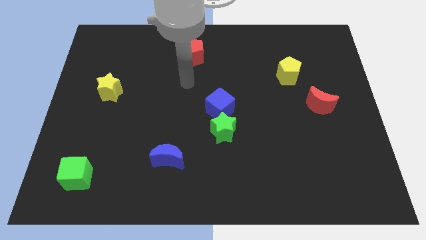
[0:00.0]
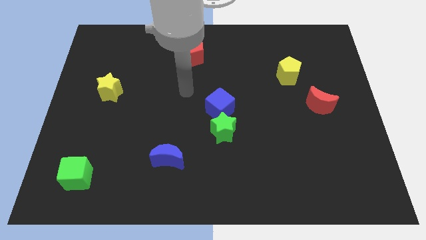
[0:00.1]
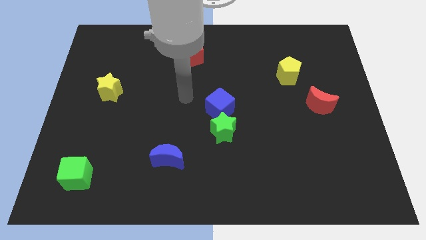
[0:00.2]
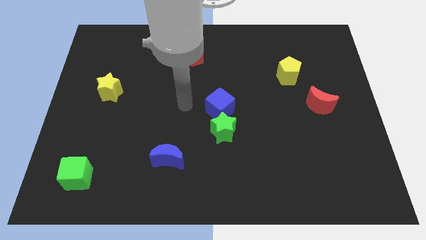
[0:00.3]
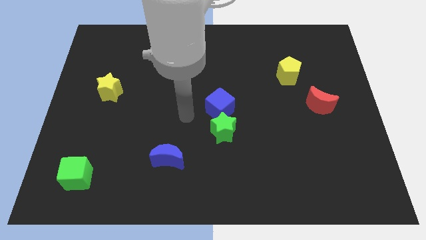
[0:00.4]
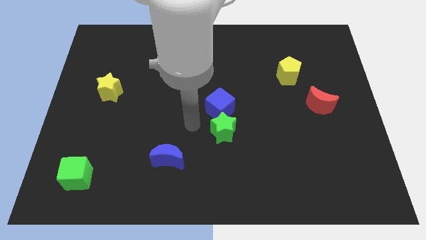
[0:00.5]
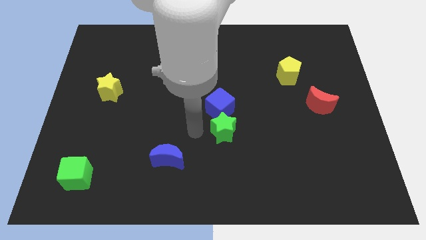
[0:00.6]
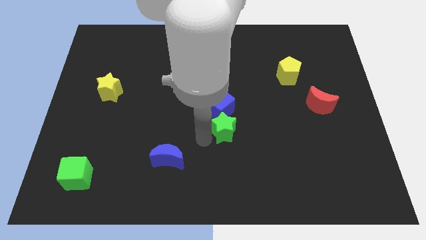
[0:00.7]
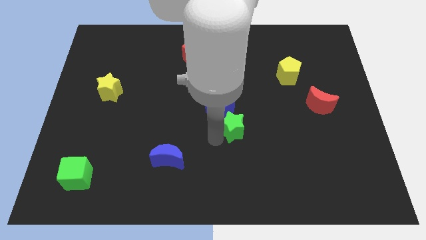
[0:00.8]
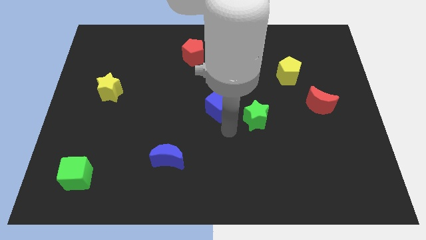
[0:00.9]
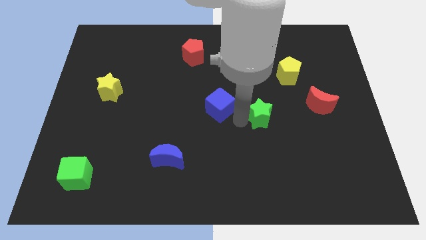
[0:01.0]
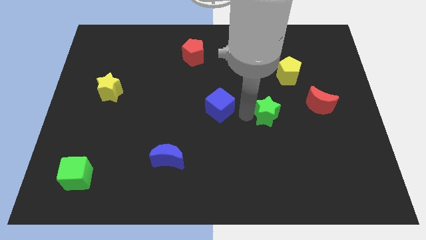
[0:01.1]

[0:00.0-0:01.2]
move the blue cube away from the green star

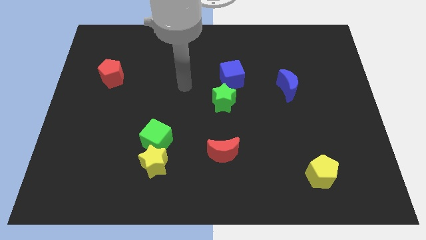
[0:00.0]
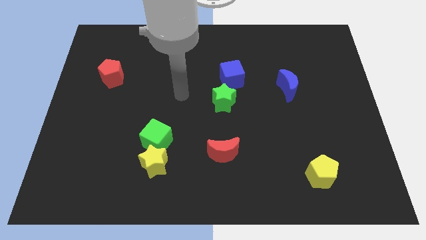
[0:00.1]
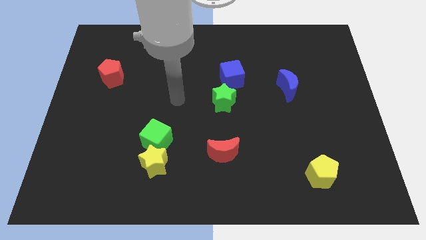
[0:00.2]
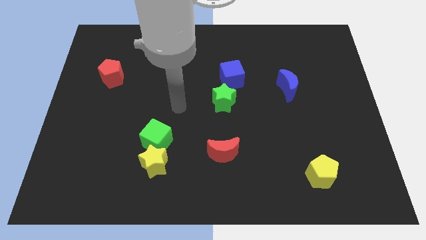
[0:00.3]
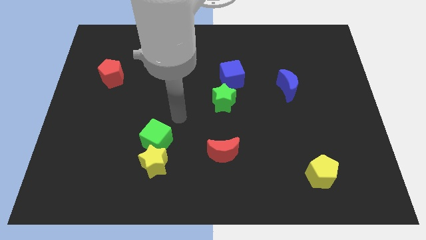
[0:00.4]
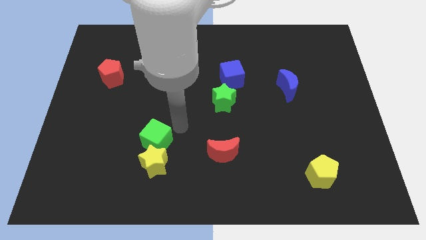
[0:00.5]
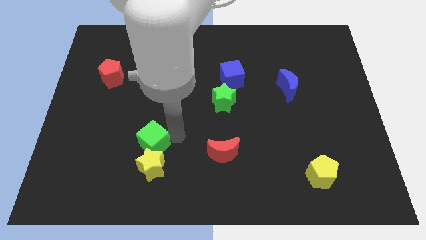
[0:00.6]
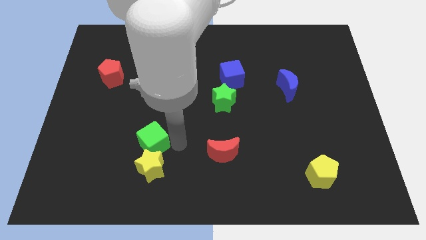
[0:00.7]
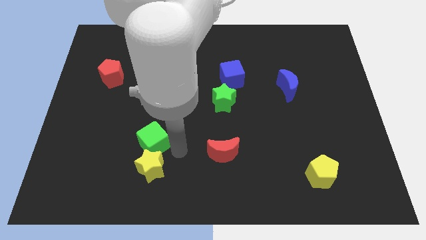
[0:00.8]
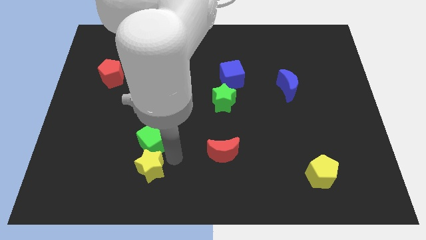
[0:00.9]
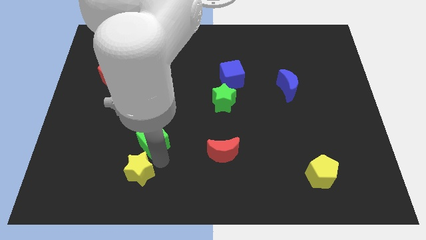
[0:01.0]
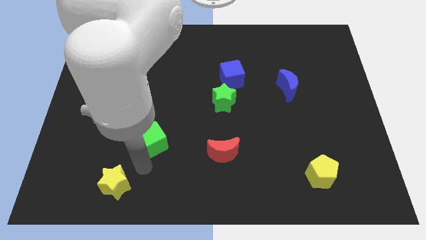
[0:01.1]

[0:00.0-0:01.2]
move the green cube away from the yellow star

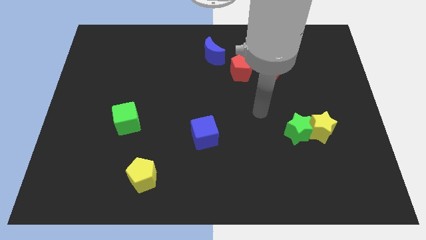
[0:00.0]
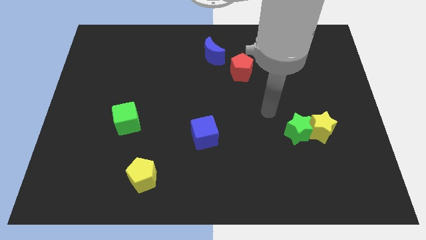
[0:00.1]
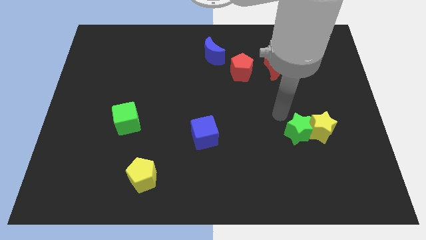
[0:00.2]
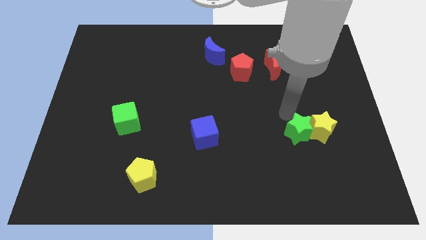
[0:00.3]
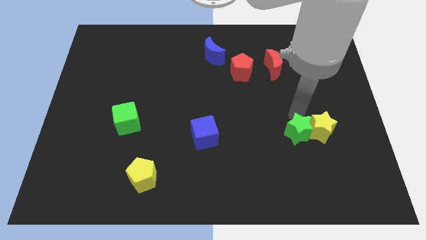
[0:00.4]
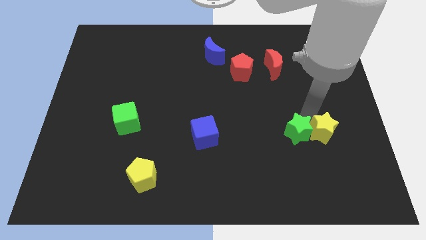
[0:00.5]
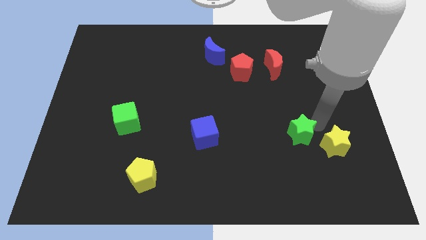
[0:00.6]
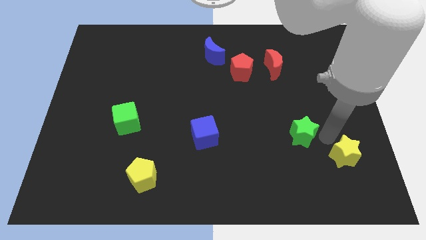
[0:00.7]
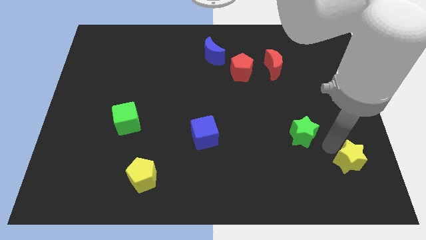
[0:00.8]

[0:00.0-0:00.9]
separate the green star from the yellow star

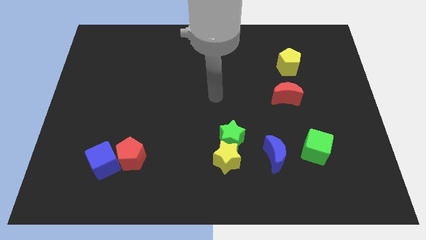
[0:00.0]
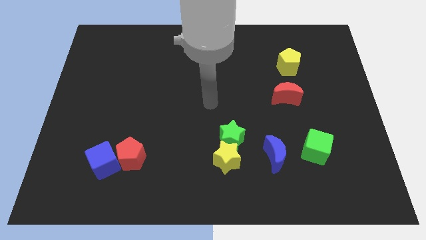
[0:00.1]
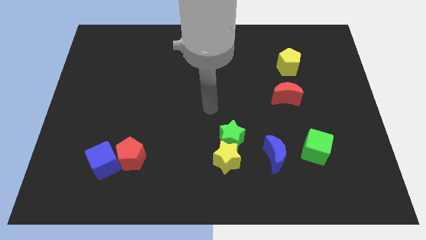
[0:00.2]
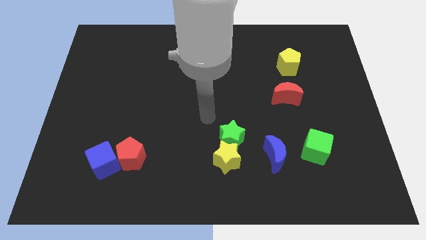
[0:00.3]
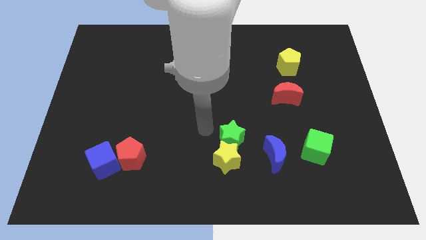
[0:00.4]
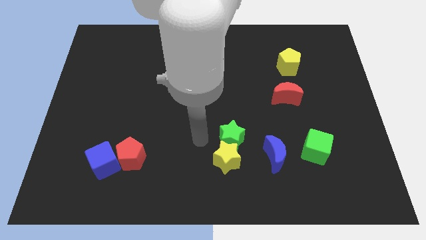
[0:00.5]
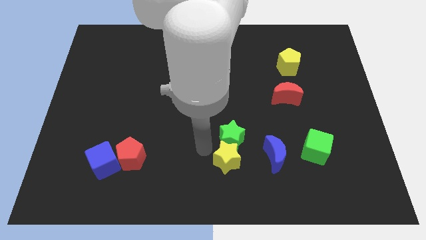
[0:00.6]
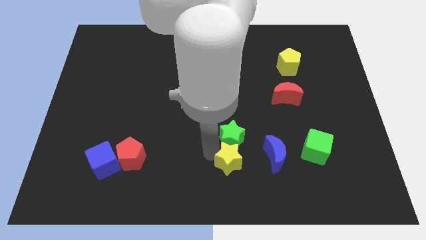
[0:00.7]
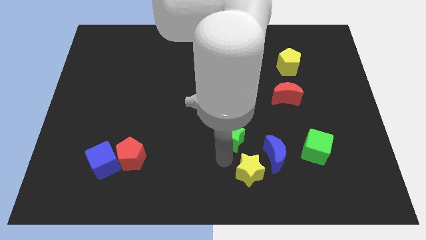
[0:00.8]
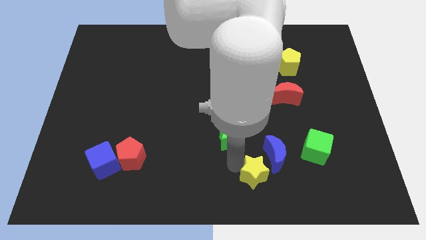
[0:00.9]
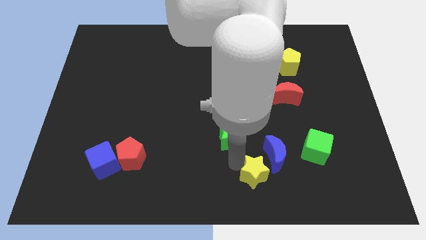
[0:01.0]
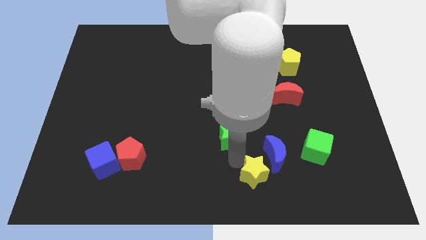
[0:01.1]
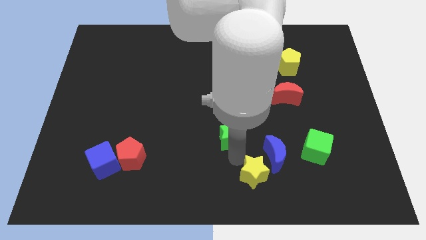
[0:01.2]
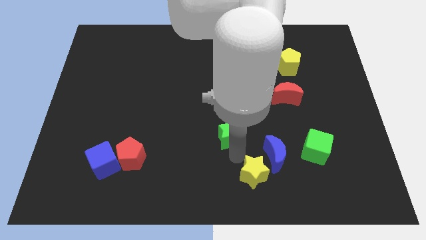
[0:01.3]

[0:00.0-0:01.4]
move the green star away from the yellow star

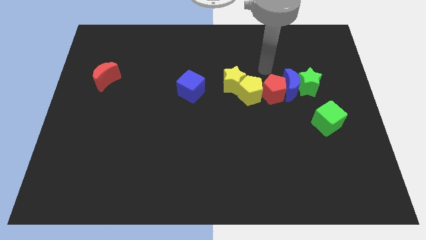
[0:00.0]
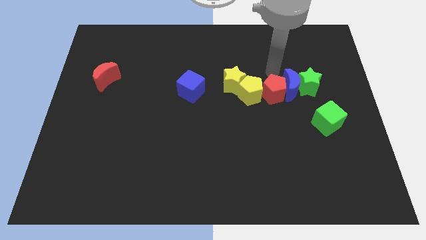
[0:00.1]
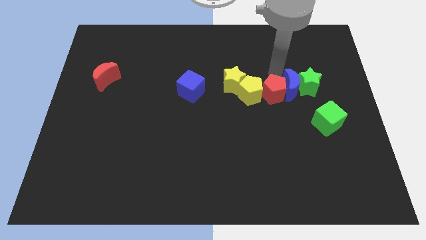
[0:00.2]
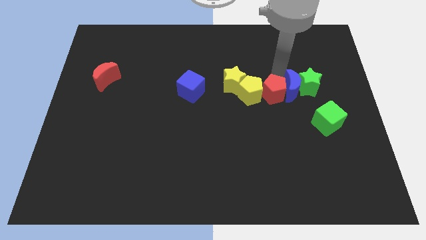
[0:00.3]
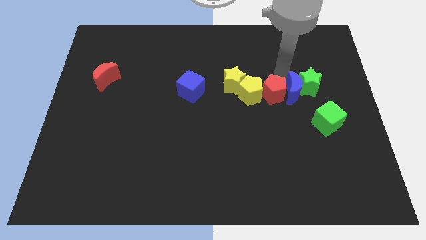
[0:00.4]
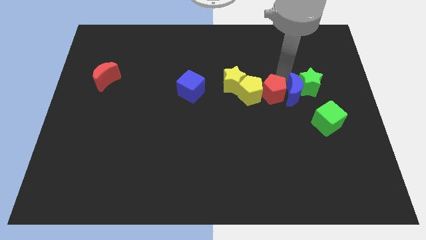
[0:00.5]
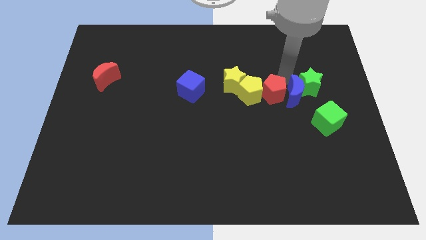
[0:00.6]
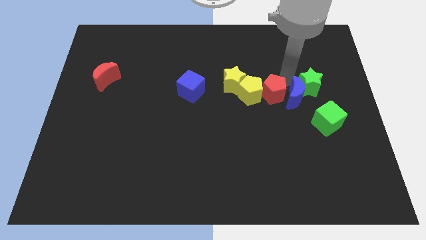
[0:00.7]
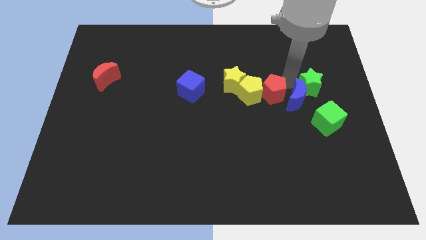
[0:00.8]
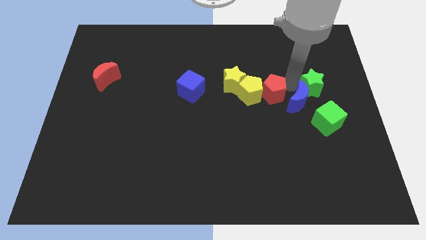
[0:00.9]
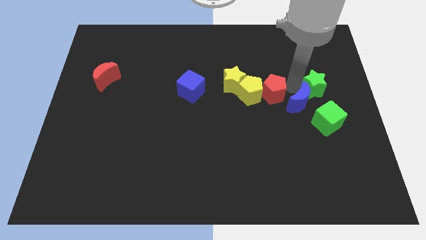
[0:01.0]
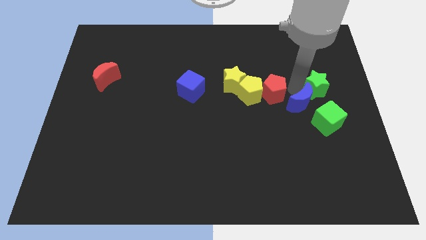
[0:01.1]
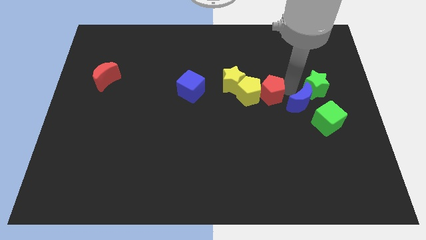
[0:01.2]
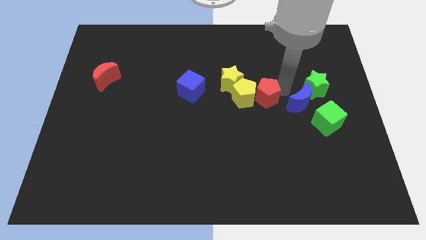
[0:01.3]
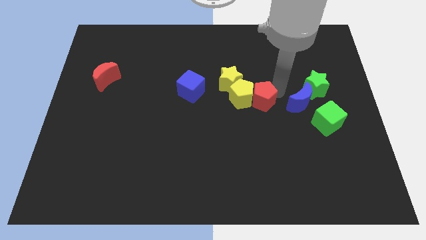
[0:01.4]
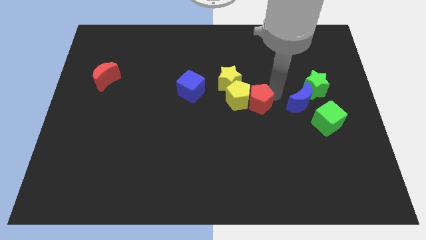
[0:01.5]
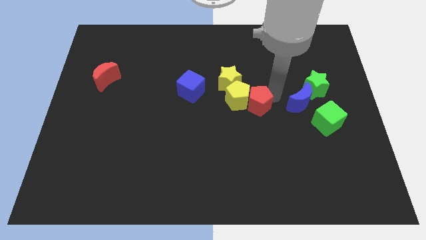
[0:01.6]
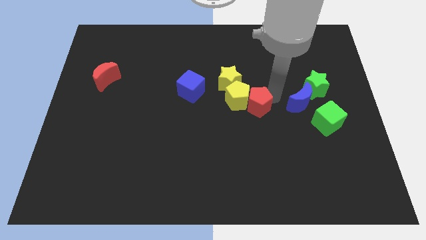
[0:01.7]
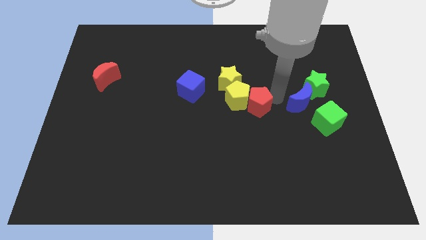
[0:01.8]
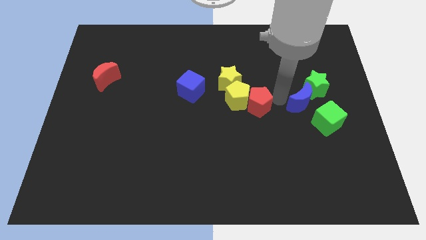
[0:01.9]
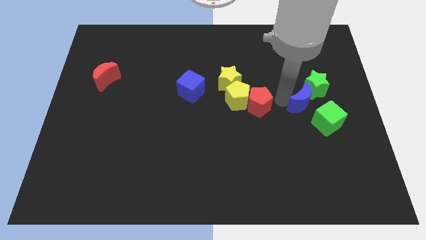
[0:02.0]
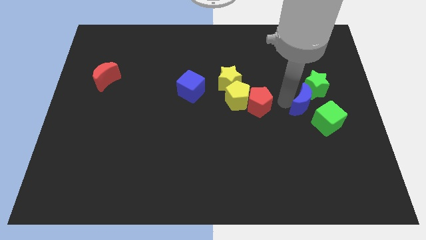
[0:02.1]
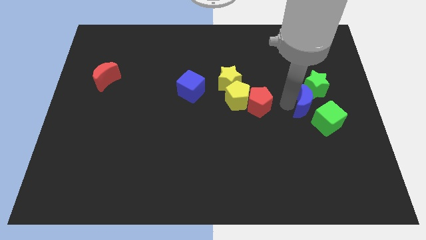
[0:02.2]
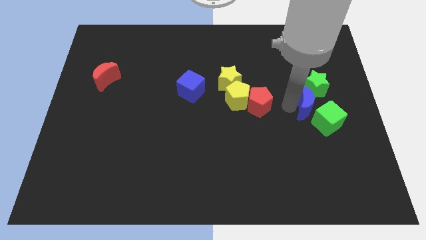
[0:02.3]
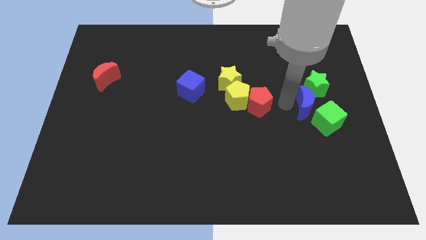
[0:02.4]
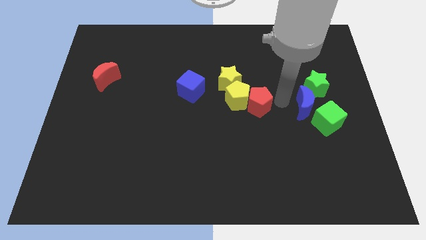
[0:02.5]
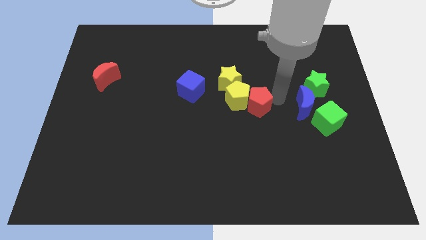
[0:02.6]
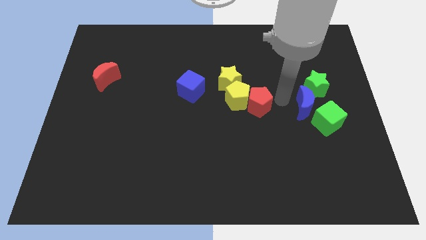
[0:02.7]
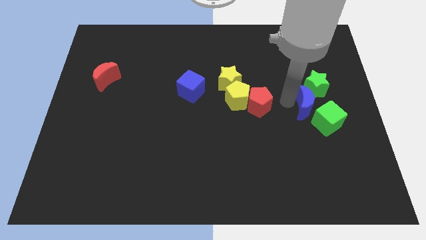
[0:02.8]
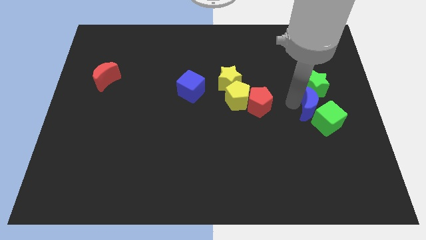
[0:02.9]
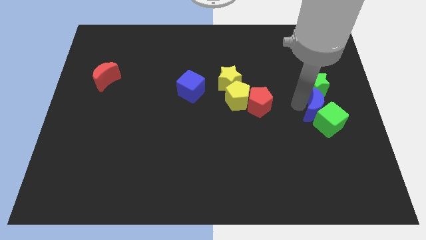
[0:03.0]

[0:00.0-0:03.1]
pull the blue moon apart from the group of blocks

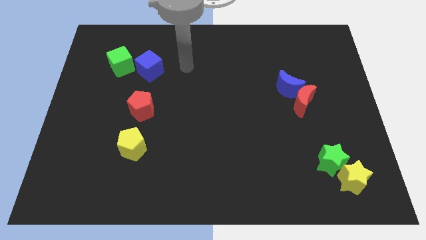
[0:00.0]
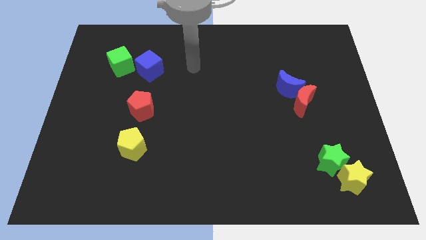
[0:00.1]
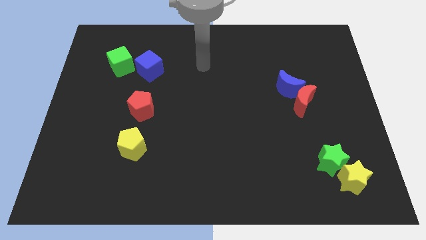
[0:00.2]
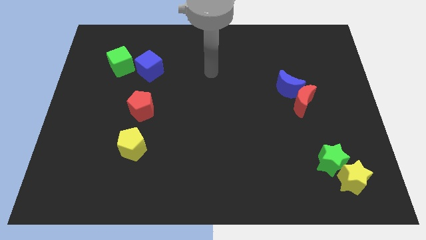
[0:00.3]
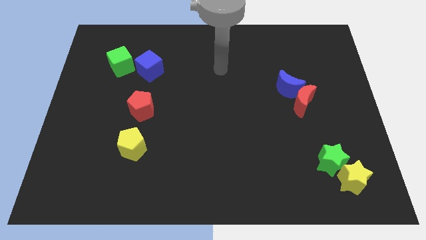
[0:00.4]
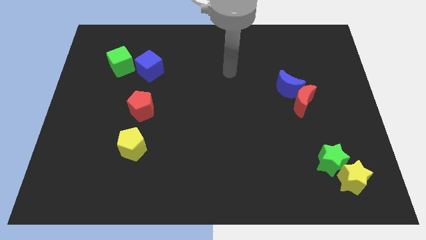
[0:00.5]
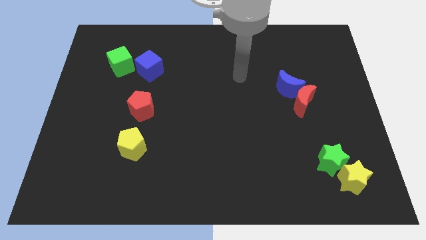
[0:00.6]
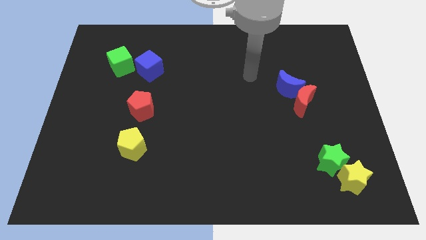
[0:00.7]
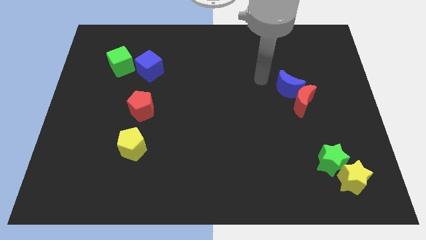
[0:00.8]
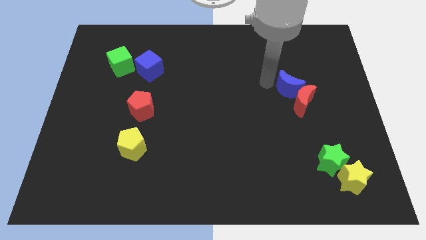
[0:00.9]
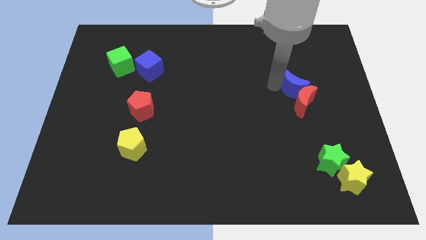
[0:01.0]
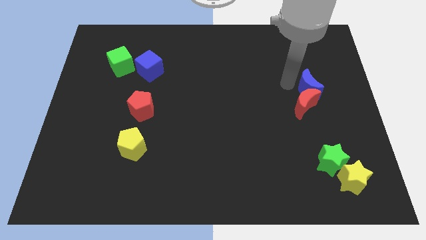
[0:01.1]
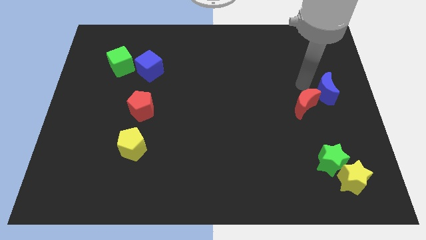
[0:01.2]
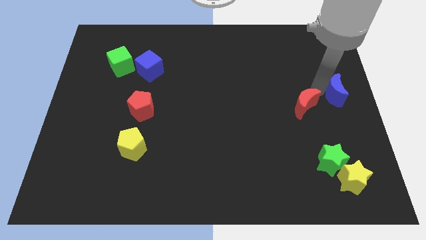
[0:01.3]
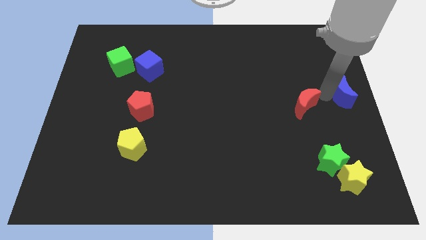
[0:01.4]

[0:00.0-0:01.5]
separate the red moon from the blue moon
